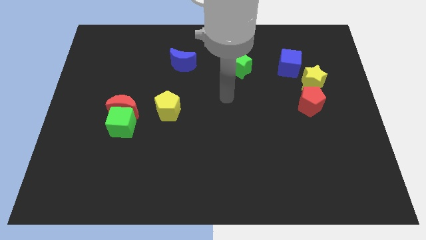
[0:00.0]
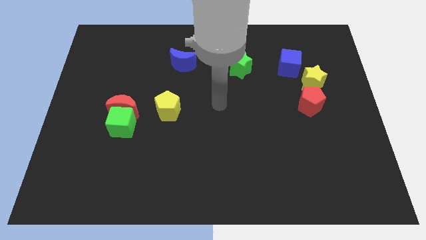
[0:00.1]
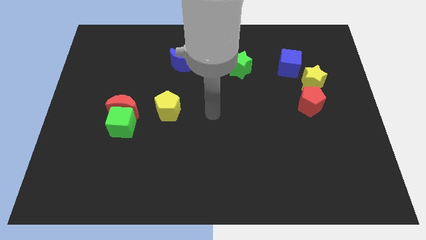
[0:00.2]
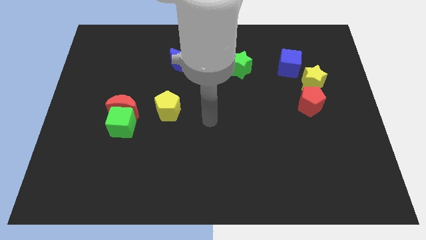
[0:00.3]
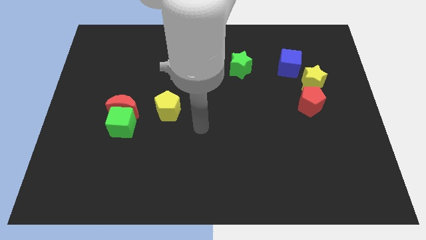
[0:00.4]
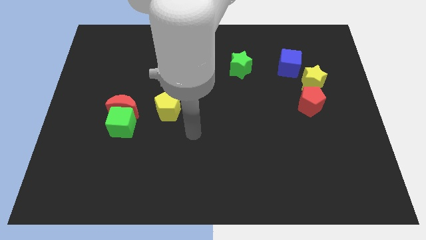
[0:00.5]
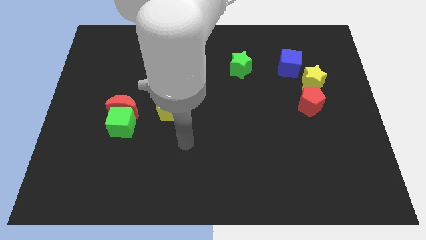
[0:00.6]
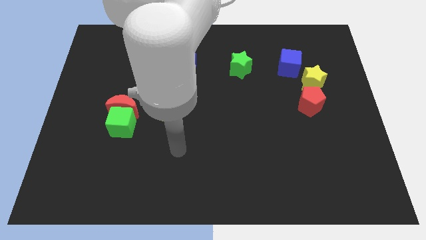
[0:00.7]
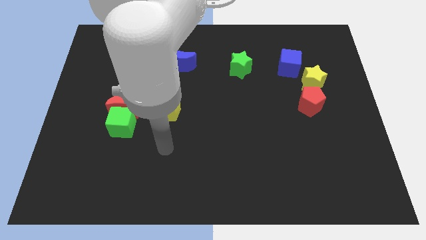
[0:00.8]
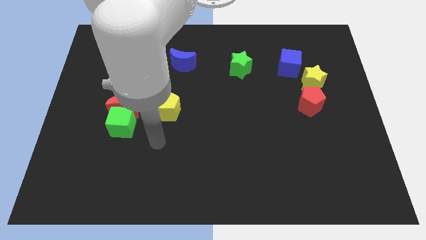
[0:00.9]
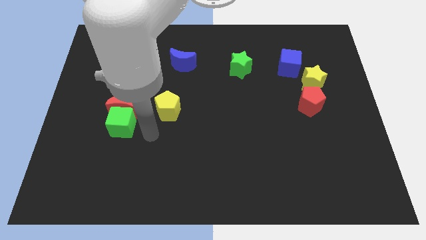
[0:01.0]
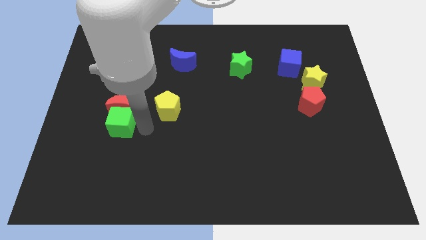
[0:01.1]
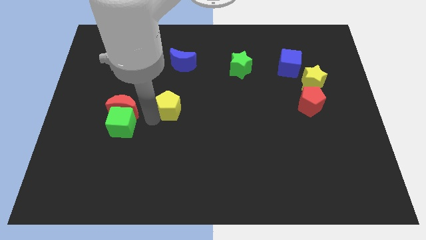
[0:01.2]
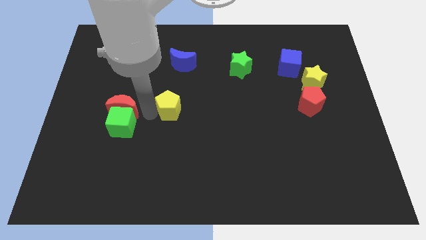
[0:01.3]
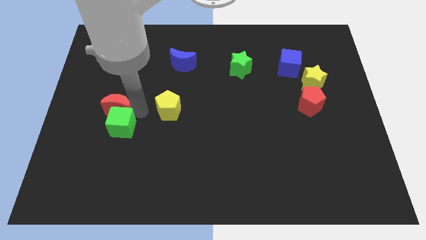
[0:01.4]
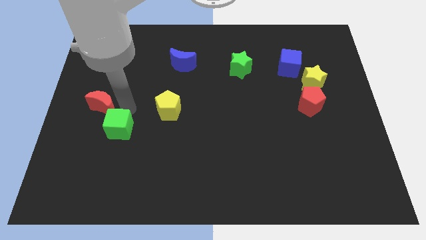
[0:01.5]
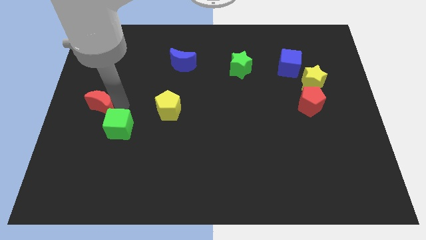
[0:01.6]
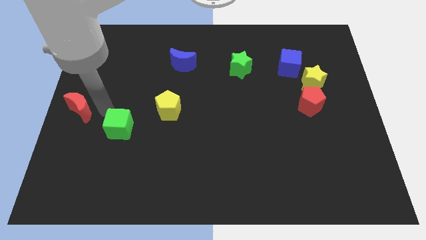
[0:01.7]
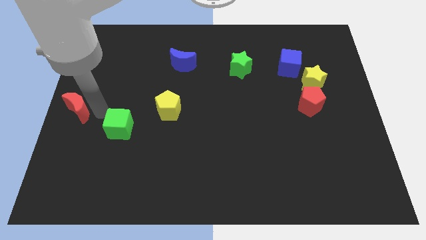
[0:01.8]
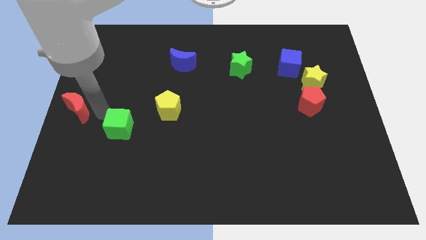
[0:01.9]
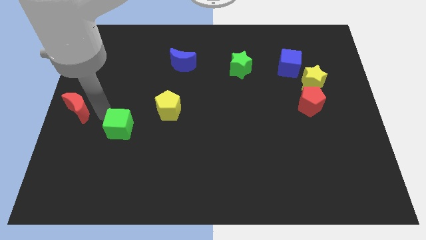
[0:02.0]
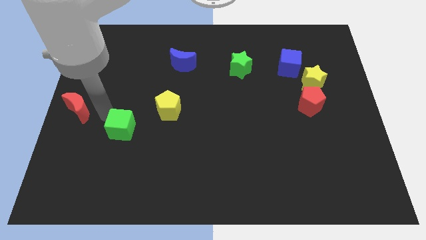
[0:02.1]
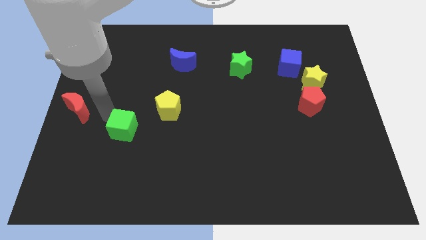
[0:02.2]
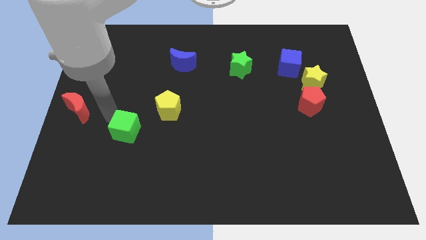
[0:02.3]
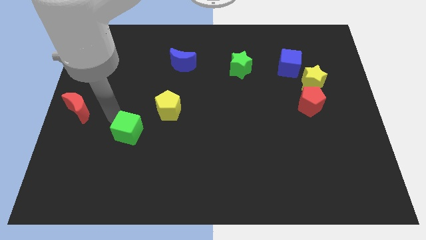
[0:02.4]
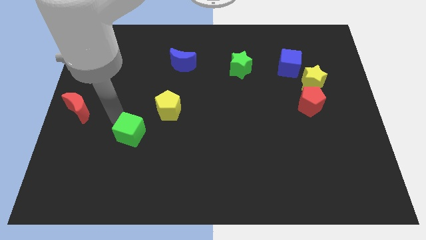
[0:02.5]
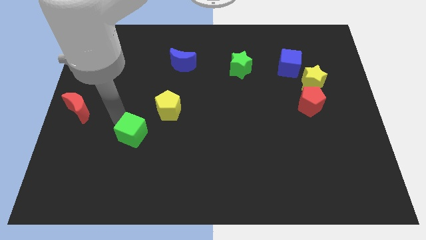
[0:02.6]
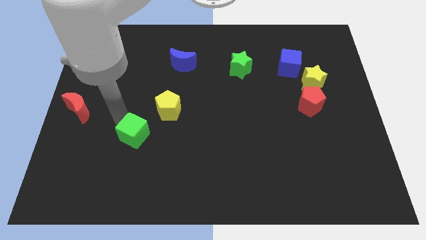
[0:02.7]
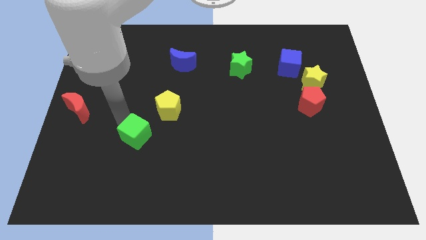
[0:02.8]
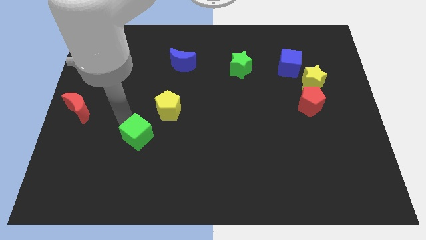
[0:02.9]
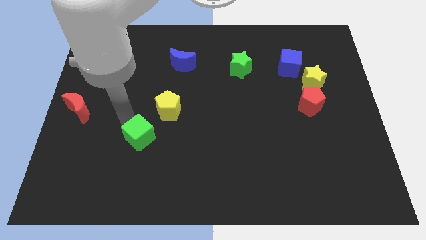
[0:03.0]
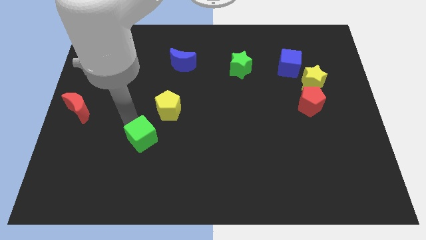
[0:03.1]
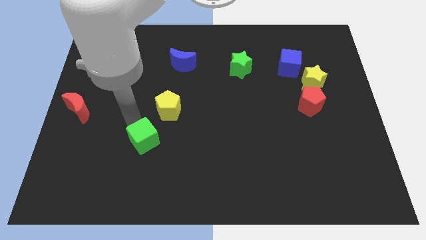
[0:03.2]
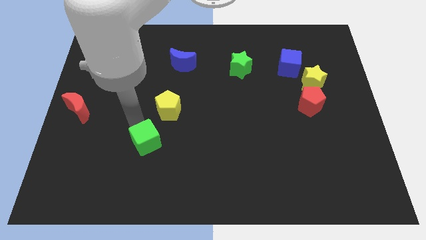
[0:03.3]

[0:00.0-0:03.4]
slightly move the green cube down and right diagonally

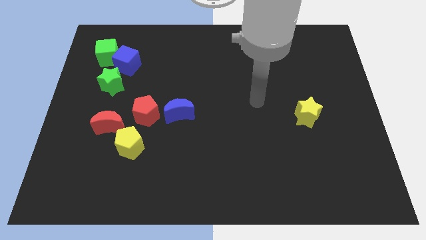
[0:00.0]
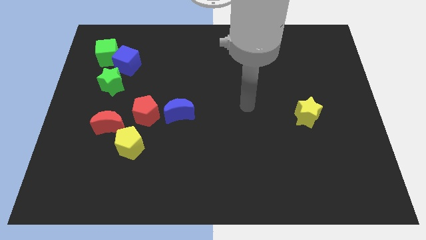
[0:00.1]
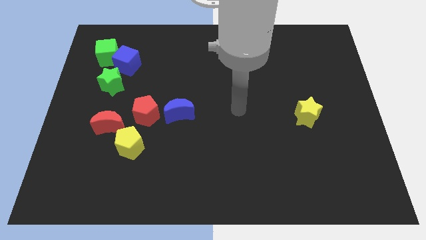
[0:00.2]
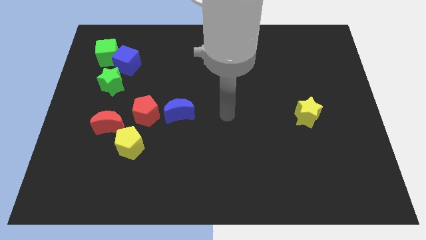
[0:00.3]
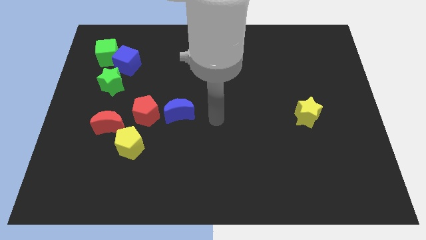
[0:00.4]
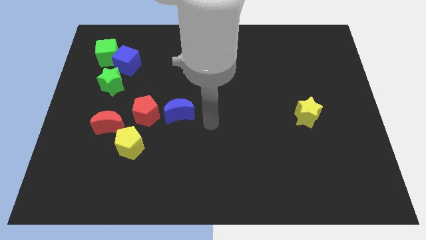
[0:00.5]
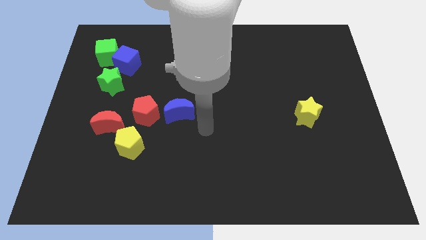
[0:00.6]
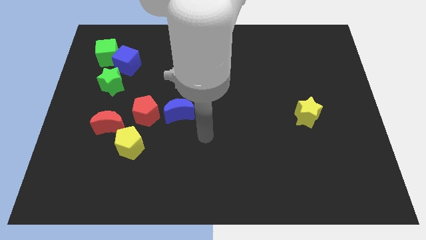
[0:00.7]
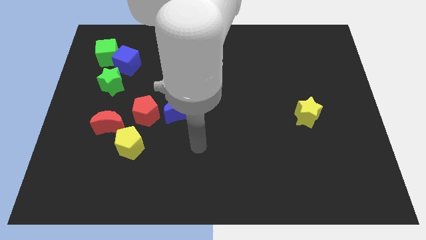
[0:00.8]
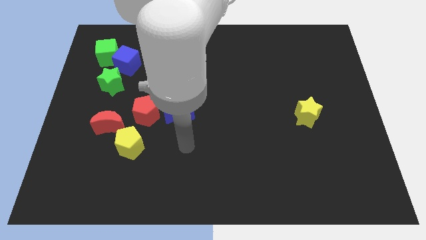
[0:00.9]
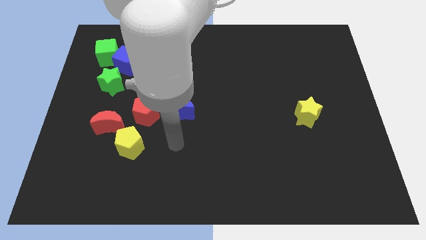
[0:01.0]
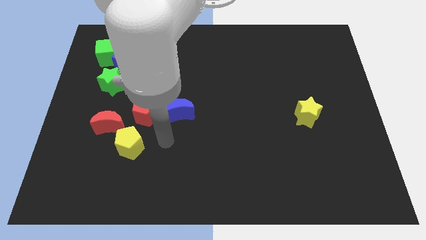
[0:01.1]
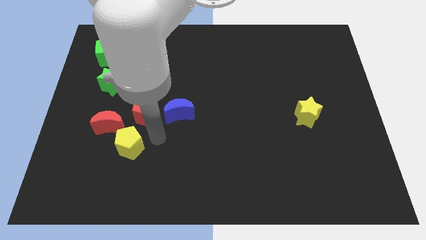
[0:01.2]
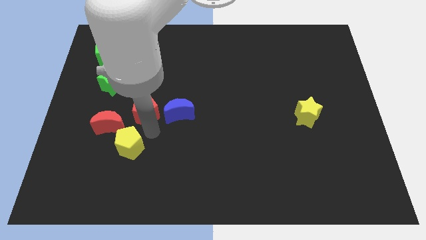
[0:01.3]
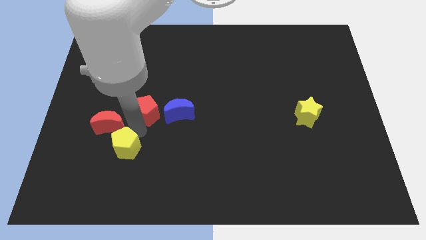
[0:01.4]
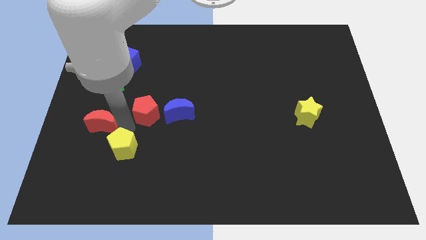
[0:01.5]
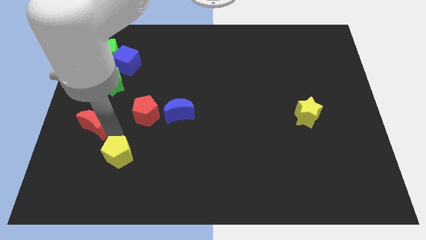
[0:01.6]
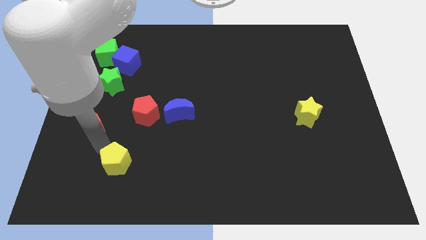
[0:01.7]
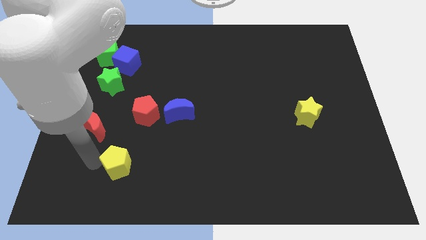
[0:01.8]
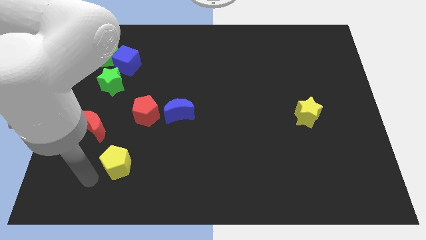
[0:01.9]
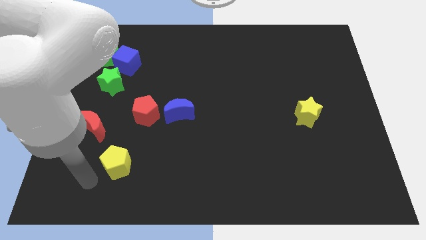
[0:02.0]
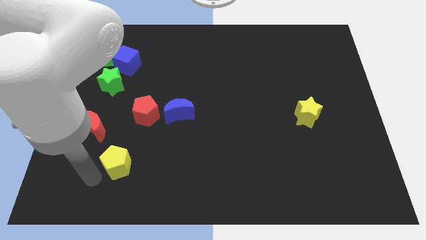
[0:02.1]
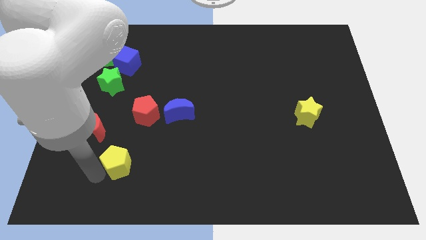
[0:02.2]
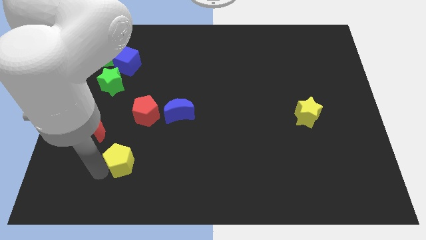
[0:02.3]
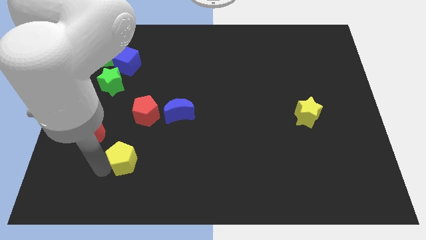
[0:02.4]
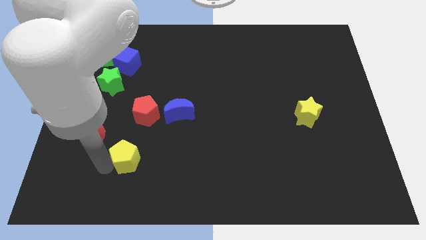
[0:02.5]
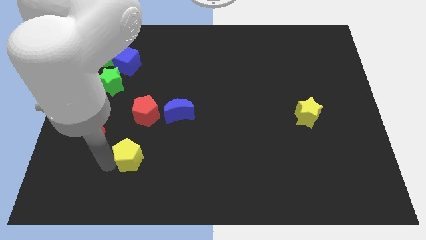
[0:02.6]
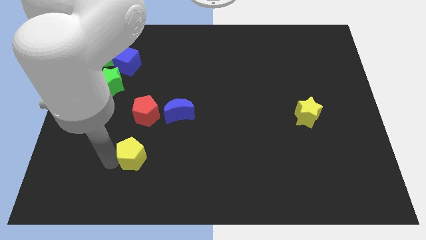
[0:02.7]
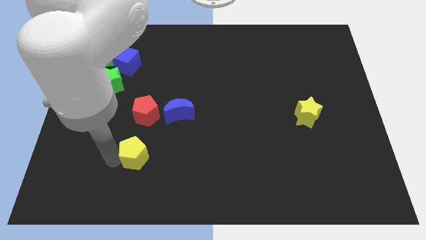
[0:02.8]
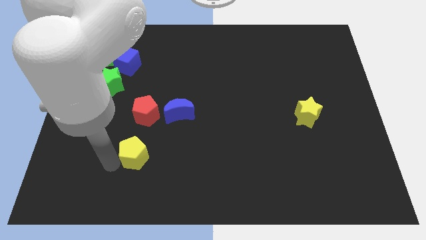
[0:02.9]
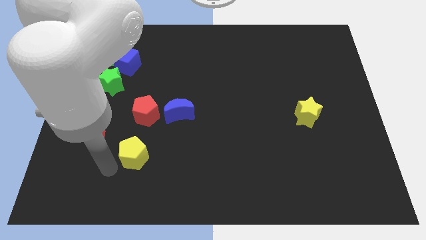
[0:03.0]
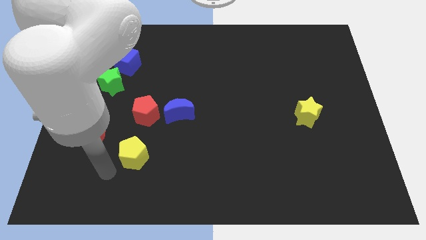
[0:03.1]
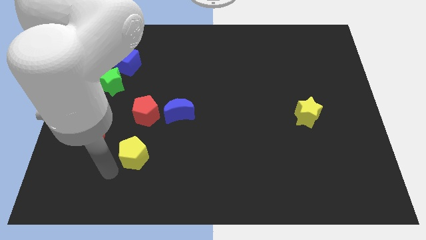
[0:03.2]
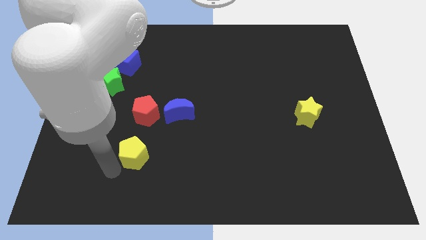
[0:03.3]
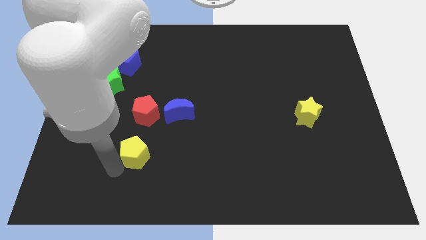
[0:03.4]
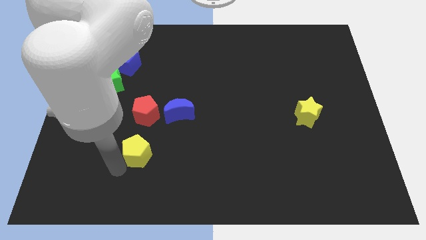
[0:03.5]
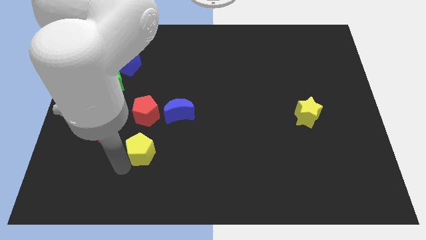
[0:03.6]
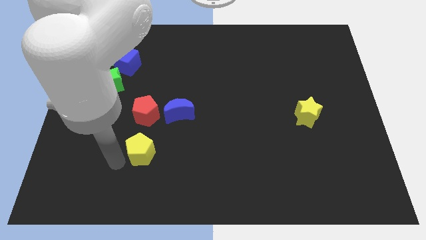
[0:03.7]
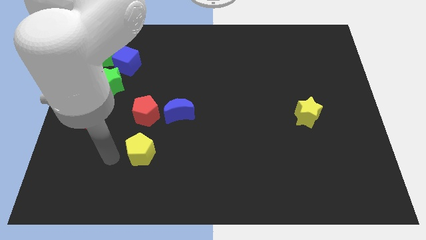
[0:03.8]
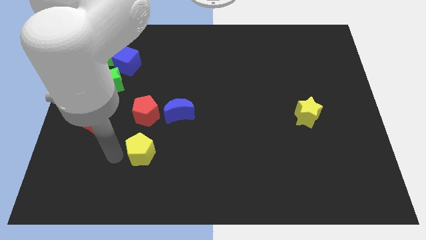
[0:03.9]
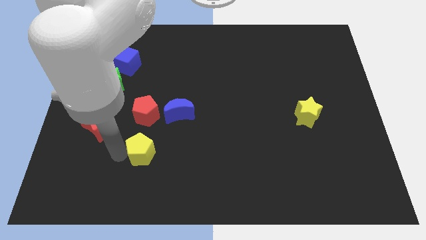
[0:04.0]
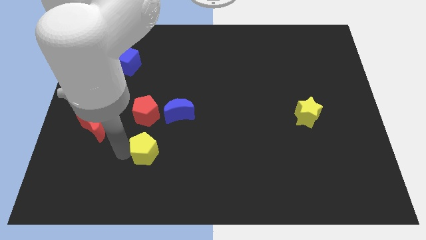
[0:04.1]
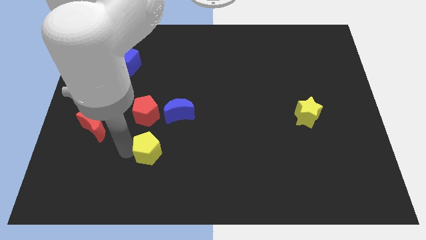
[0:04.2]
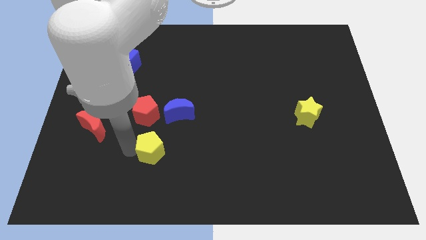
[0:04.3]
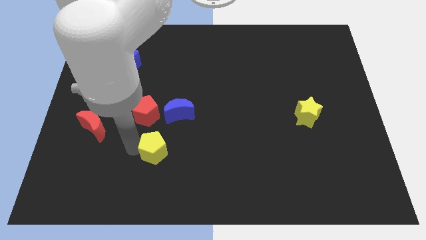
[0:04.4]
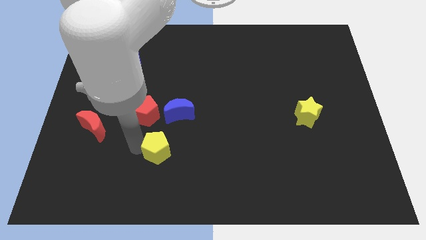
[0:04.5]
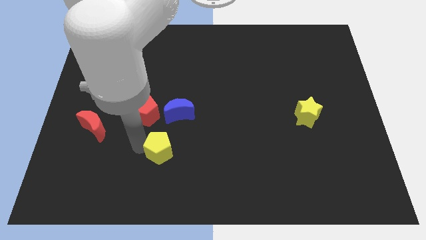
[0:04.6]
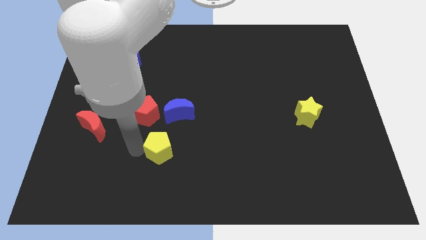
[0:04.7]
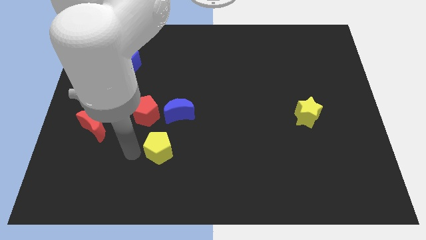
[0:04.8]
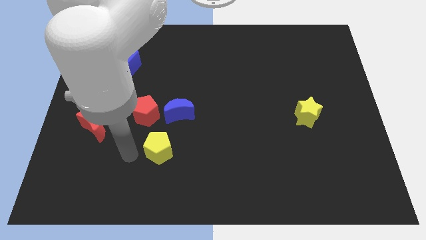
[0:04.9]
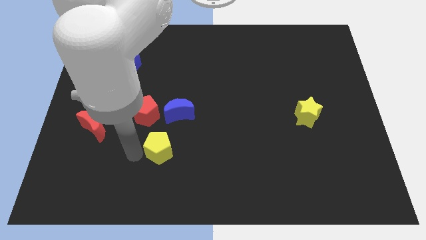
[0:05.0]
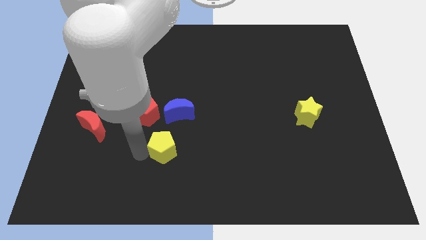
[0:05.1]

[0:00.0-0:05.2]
slide the yellow pentagon right a little
